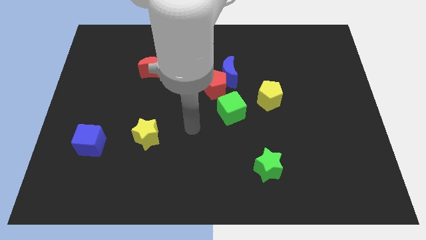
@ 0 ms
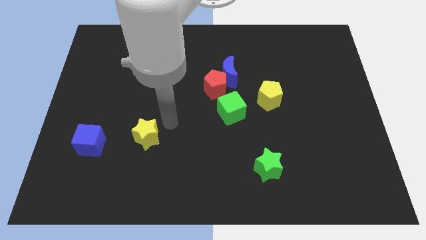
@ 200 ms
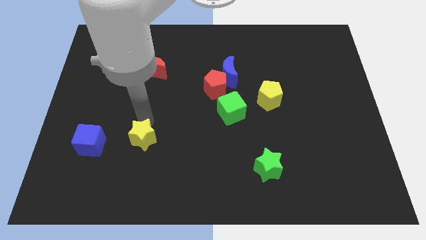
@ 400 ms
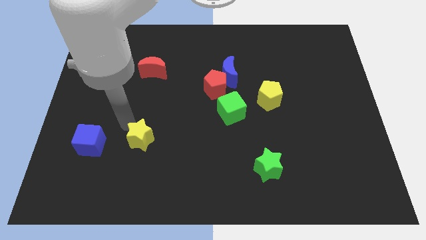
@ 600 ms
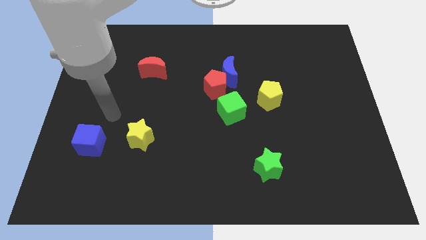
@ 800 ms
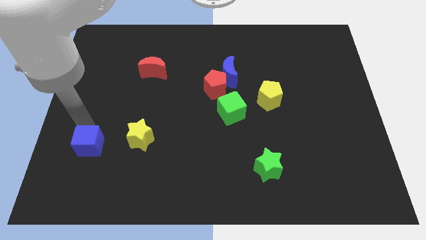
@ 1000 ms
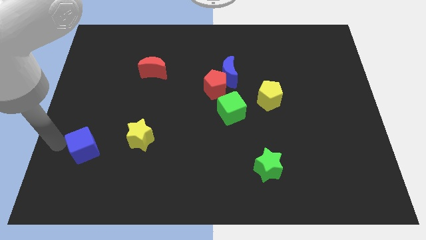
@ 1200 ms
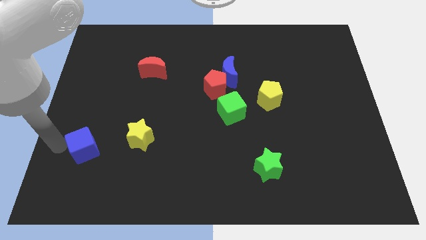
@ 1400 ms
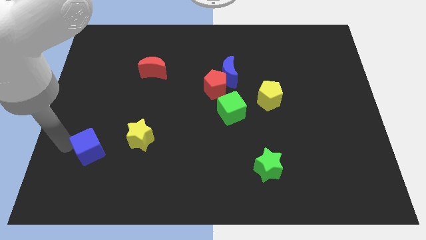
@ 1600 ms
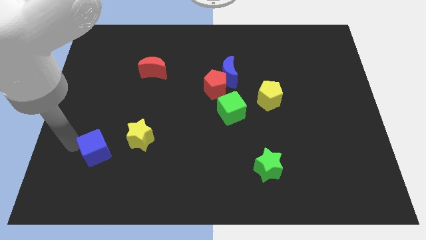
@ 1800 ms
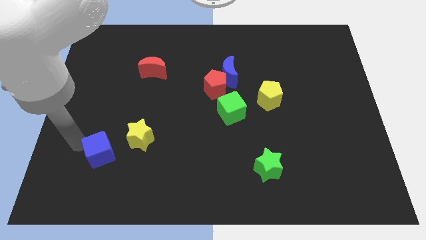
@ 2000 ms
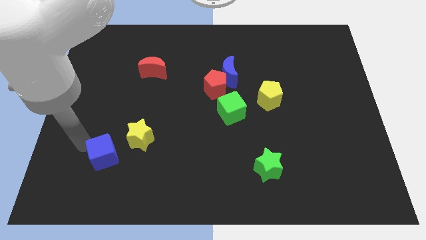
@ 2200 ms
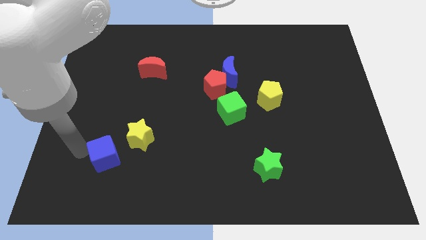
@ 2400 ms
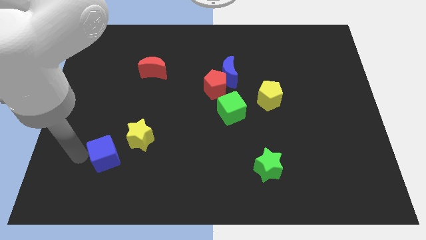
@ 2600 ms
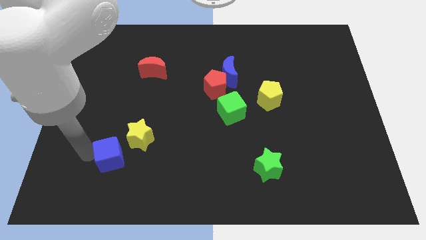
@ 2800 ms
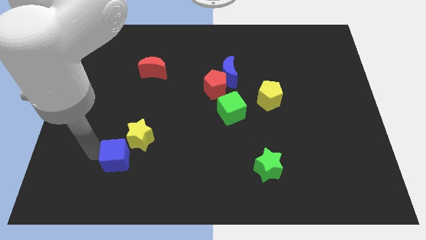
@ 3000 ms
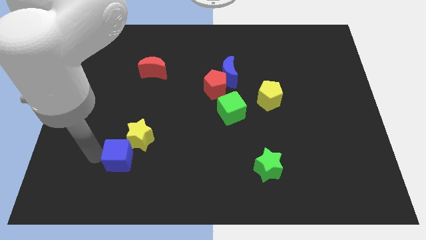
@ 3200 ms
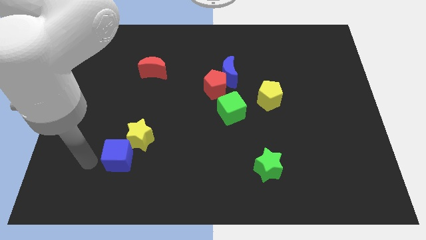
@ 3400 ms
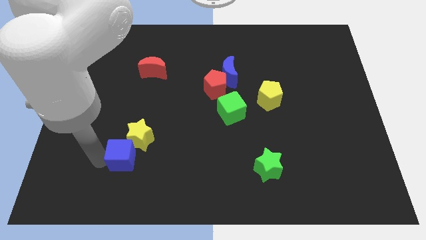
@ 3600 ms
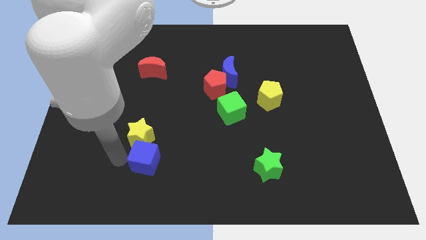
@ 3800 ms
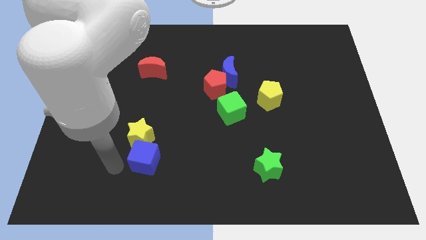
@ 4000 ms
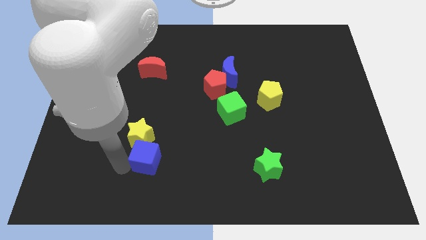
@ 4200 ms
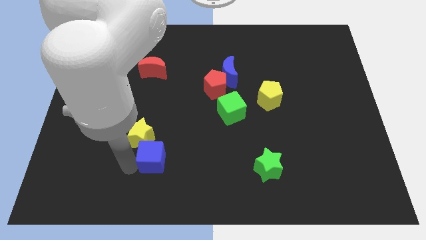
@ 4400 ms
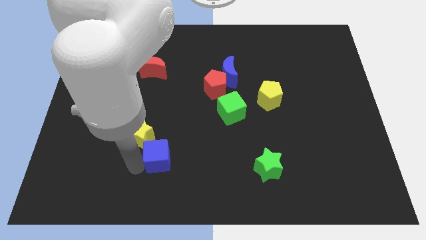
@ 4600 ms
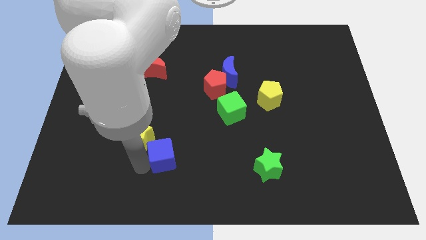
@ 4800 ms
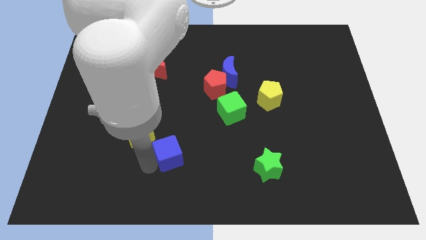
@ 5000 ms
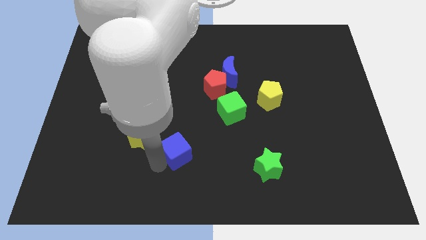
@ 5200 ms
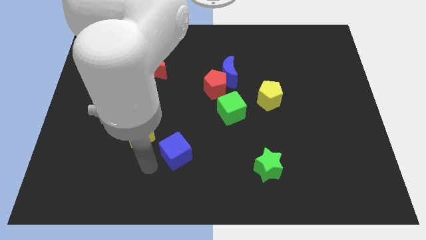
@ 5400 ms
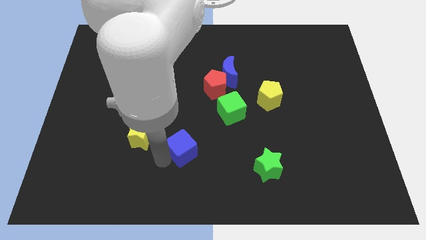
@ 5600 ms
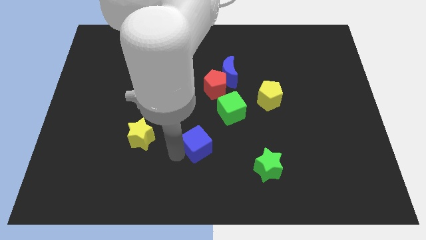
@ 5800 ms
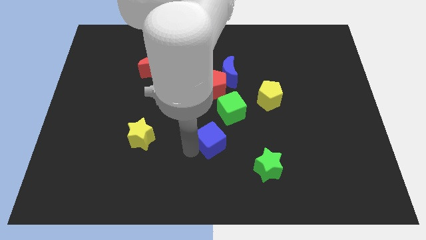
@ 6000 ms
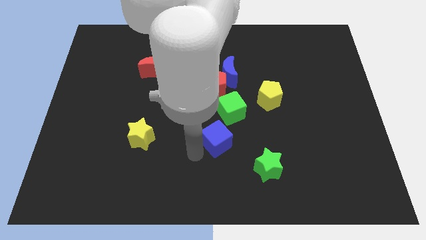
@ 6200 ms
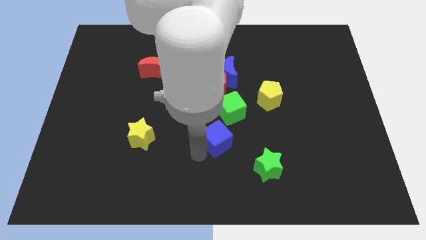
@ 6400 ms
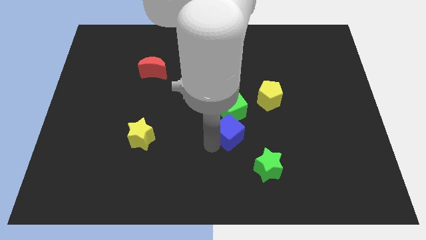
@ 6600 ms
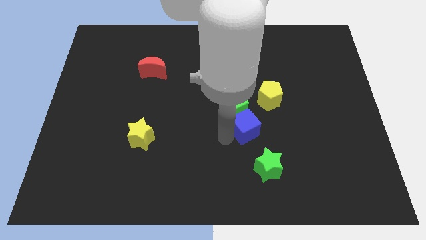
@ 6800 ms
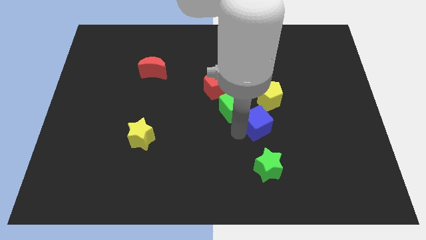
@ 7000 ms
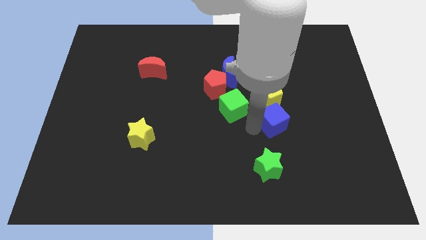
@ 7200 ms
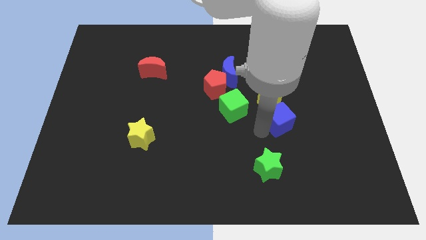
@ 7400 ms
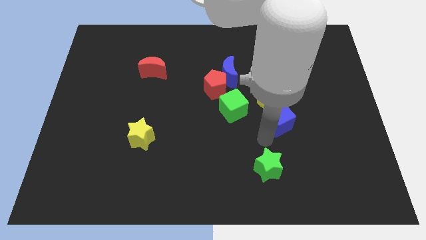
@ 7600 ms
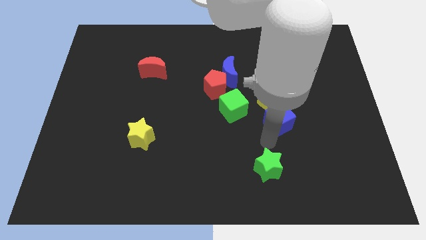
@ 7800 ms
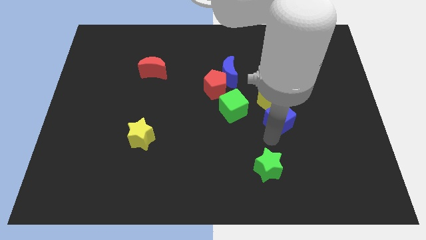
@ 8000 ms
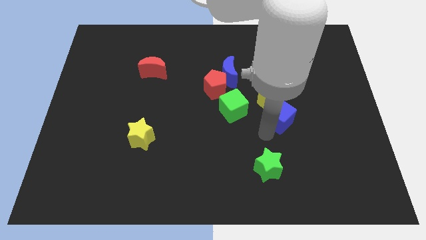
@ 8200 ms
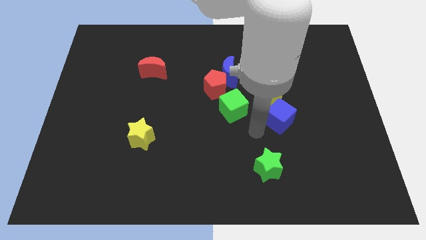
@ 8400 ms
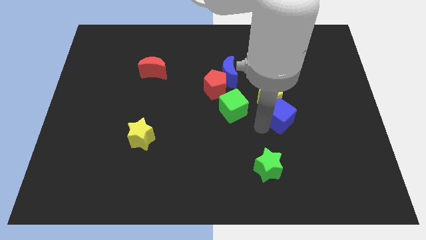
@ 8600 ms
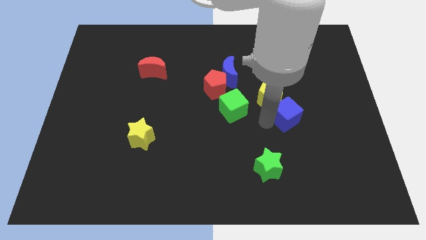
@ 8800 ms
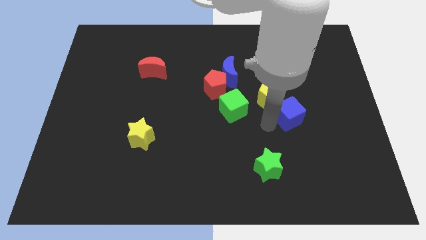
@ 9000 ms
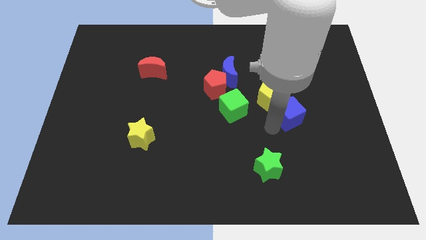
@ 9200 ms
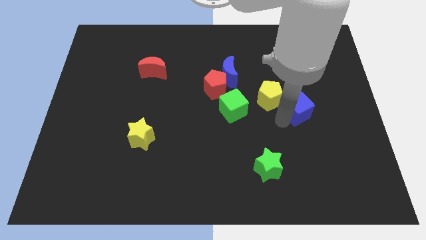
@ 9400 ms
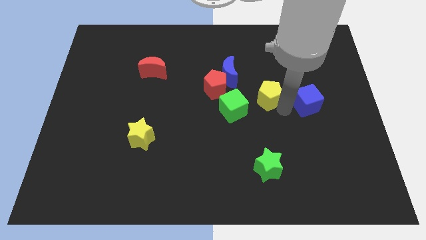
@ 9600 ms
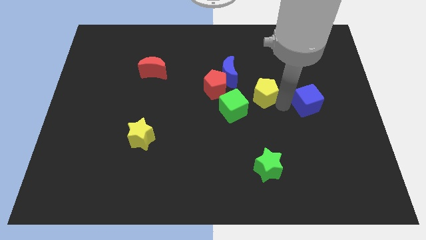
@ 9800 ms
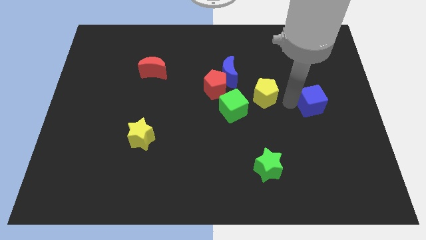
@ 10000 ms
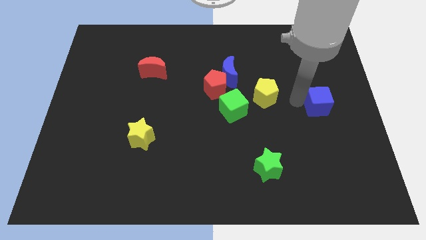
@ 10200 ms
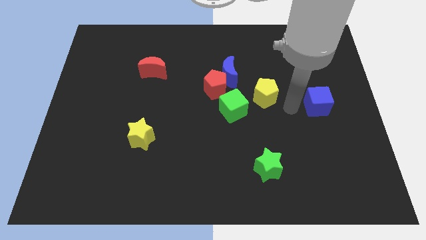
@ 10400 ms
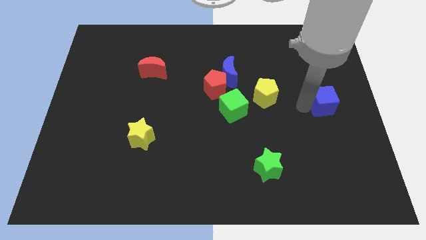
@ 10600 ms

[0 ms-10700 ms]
put the blue cube to the right side of the board

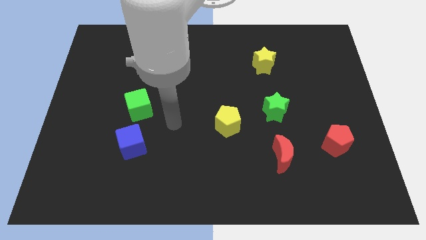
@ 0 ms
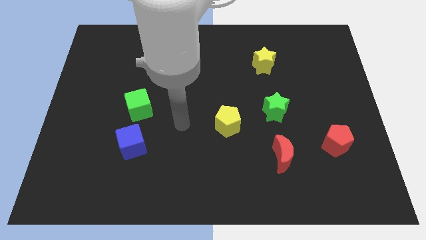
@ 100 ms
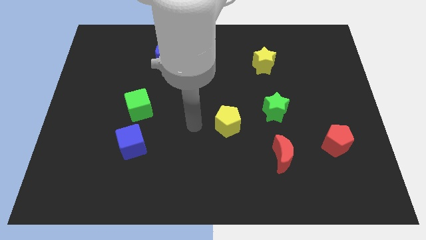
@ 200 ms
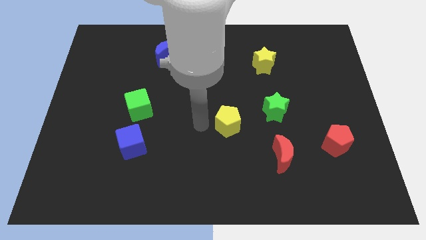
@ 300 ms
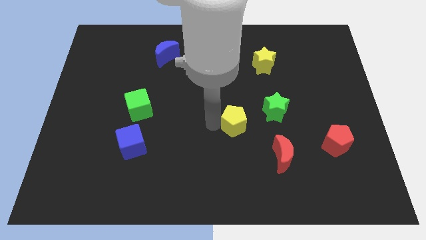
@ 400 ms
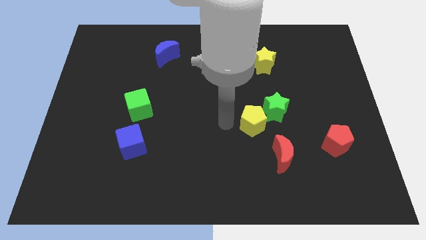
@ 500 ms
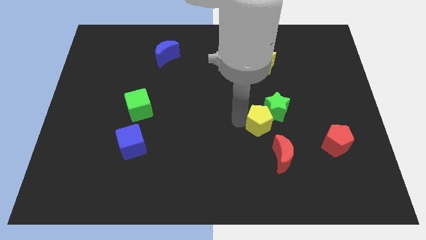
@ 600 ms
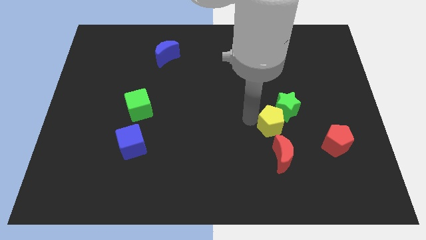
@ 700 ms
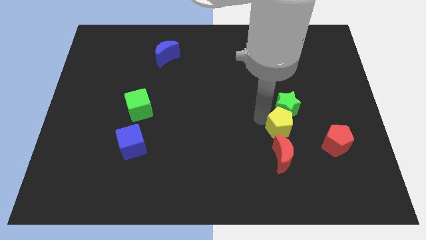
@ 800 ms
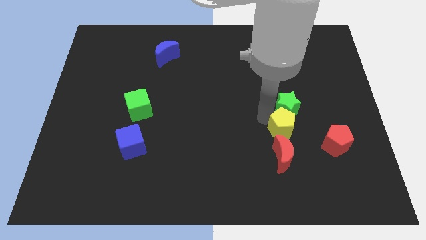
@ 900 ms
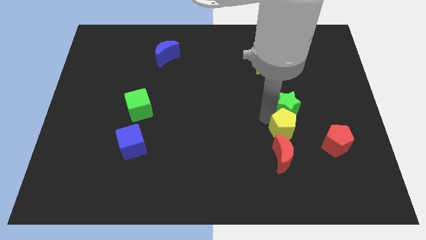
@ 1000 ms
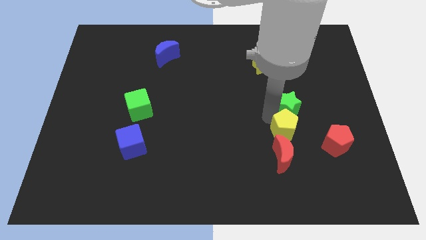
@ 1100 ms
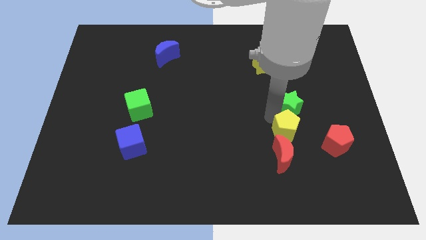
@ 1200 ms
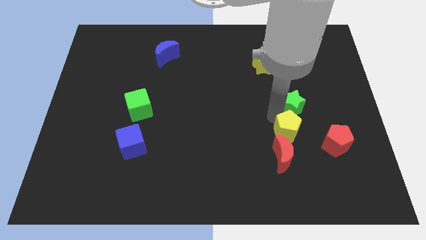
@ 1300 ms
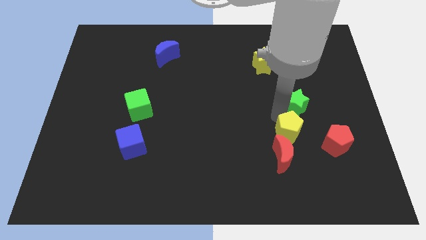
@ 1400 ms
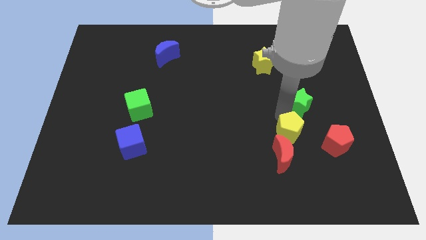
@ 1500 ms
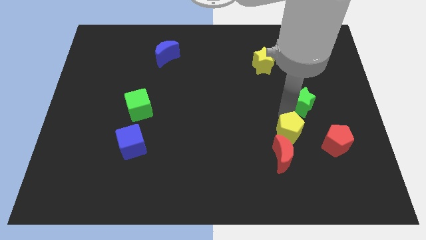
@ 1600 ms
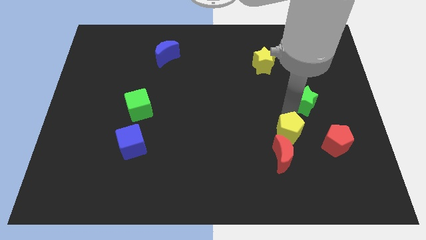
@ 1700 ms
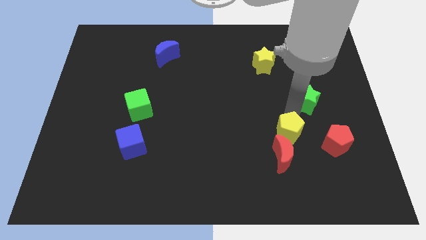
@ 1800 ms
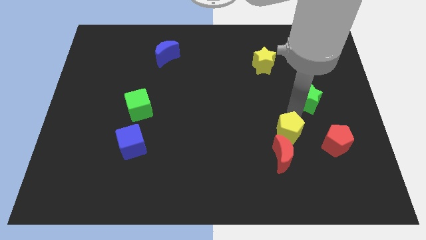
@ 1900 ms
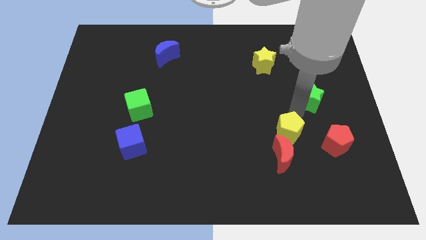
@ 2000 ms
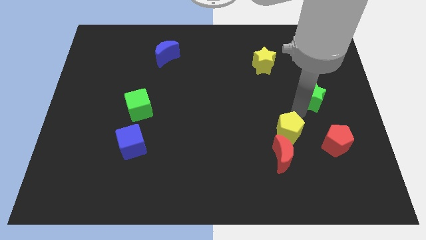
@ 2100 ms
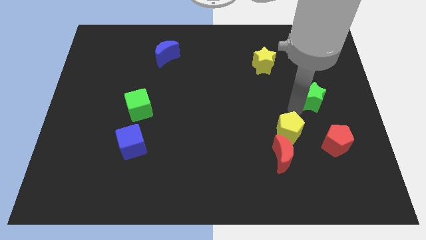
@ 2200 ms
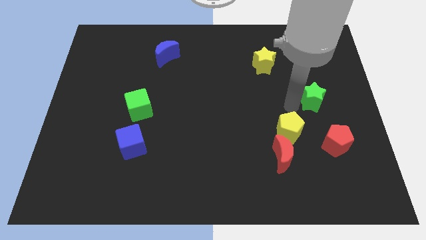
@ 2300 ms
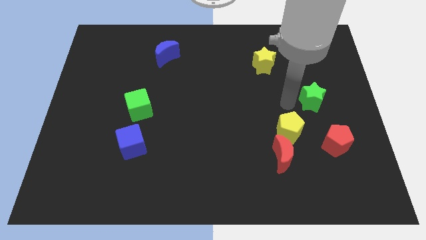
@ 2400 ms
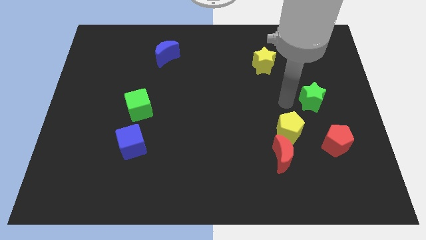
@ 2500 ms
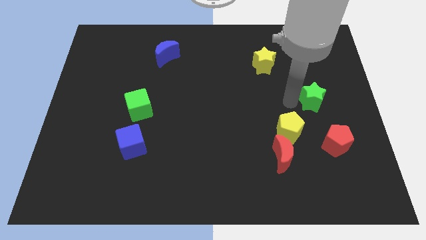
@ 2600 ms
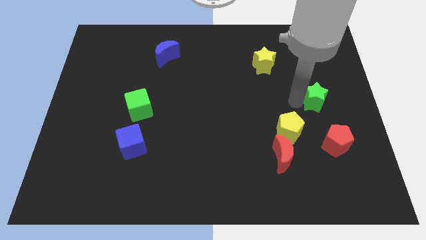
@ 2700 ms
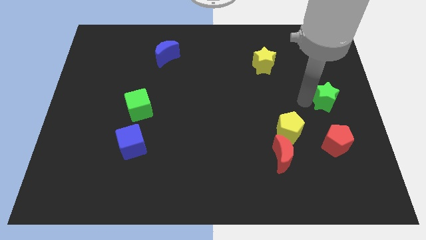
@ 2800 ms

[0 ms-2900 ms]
slide the green star to the right side of the board
